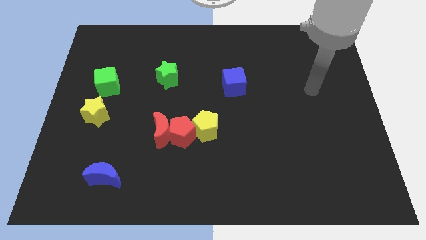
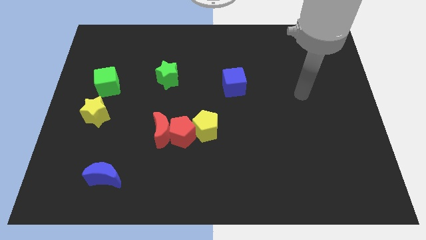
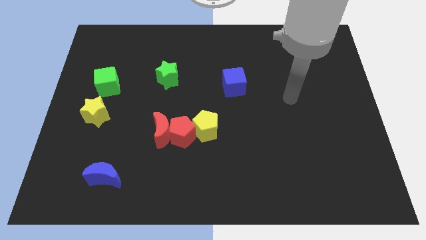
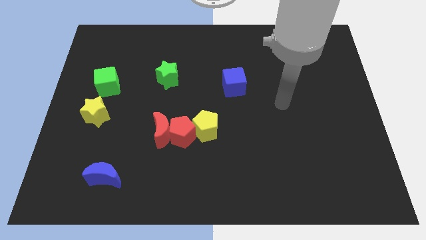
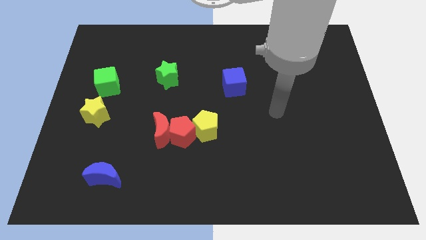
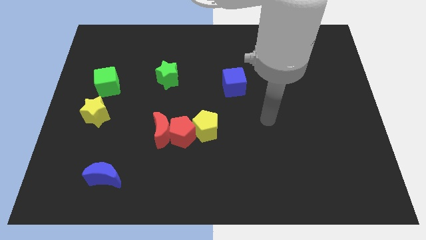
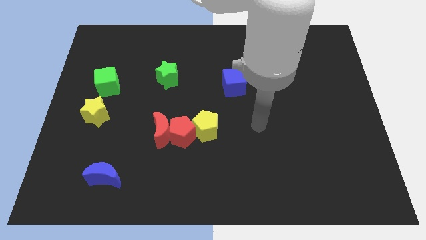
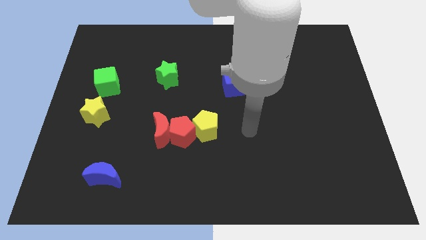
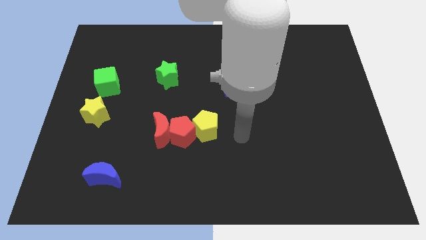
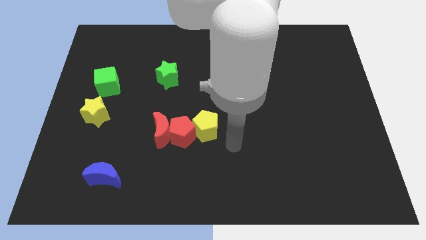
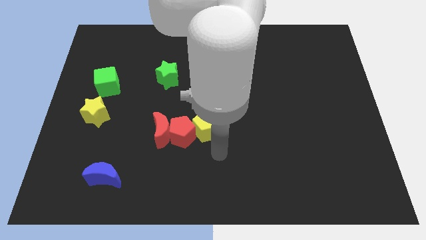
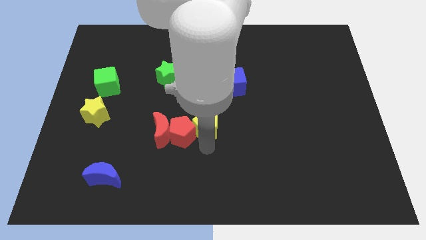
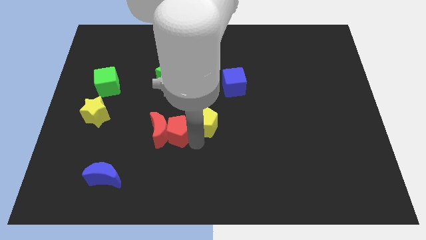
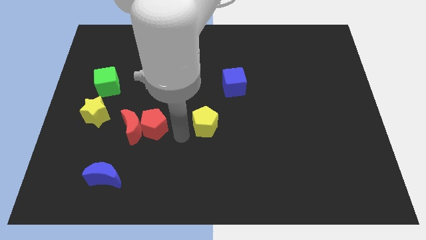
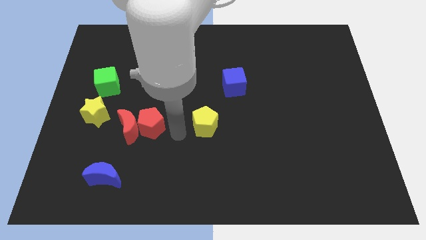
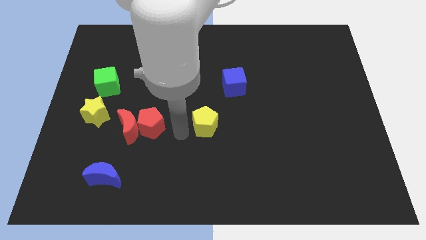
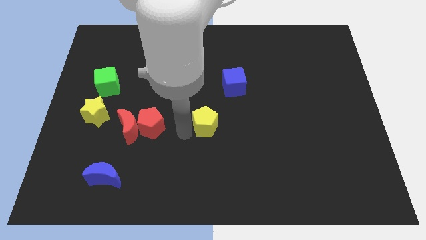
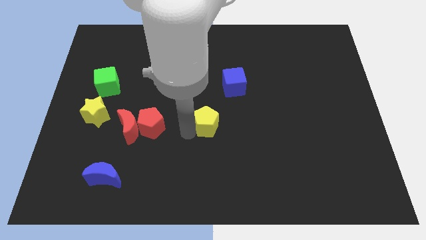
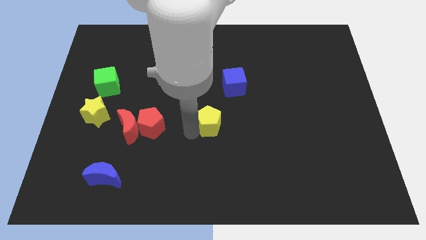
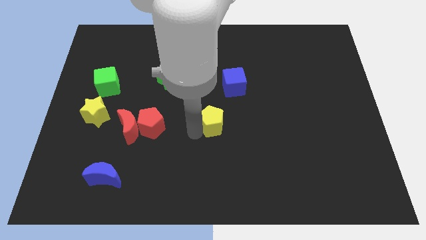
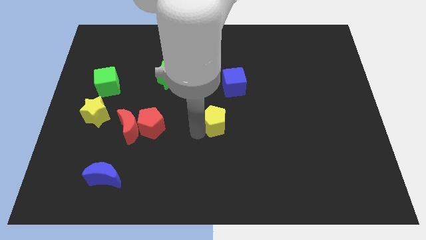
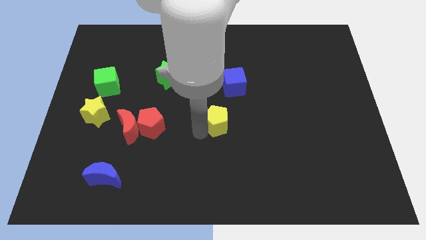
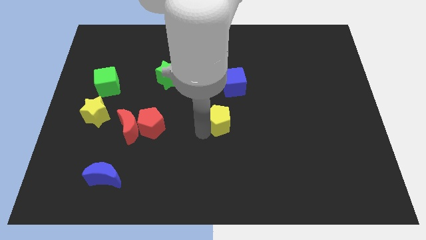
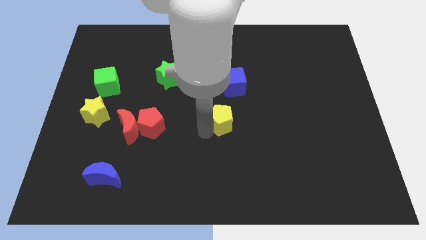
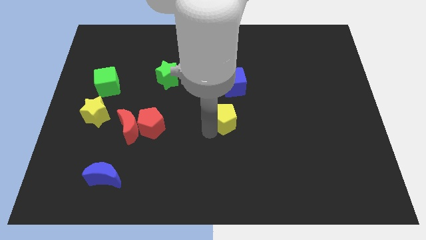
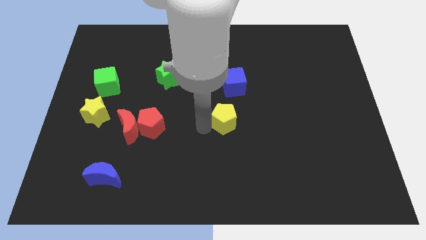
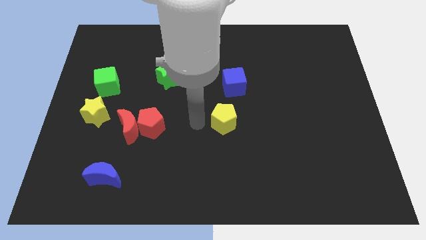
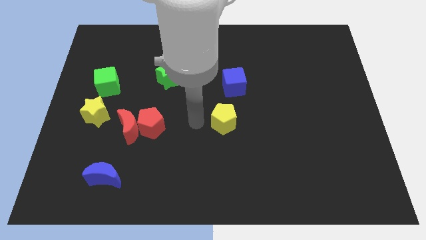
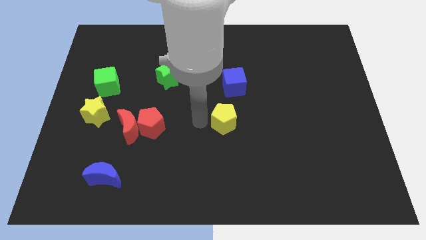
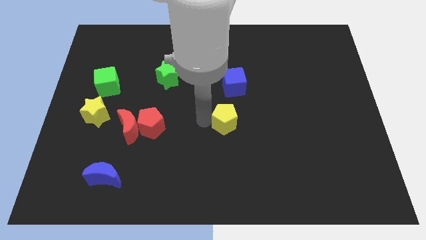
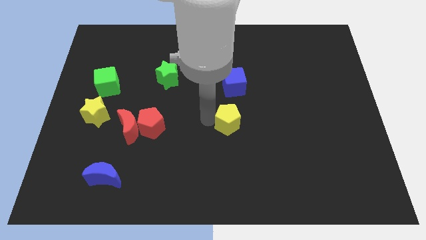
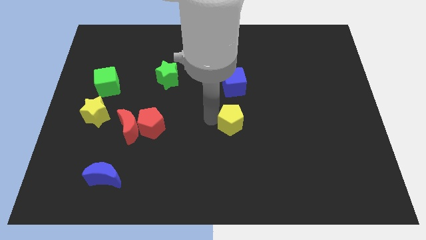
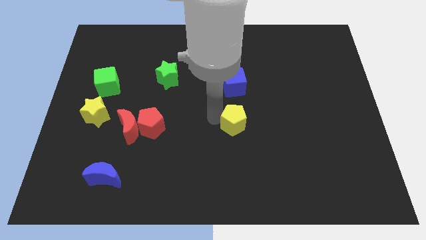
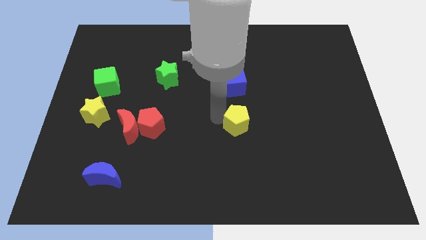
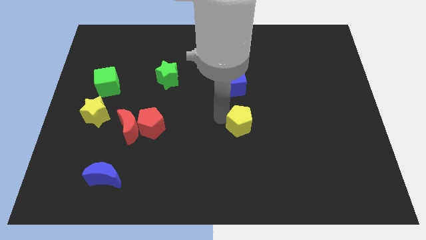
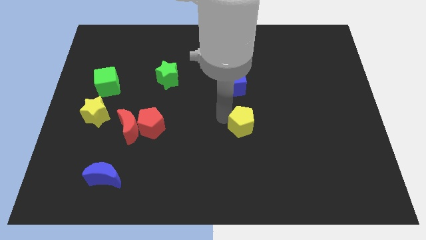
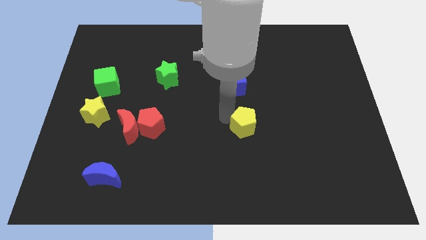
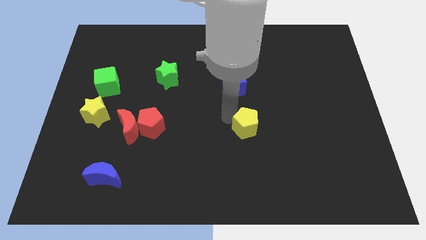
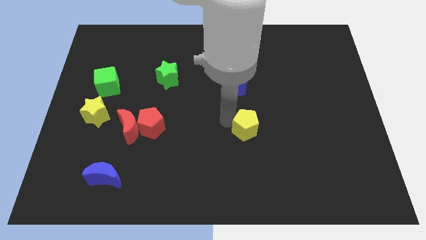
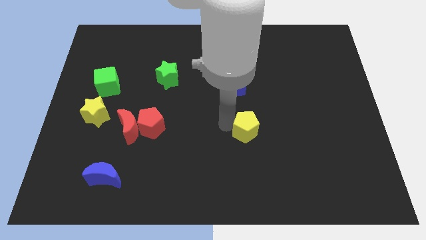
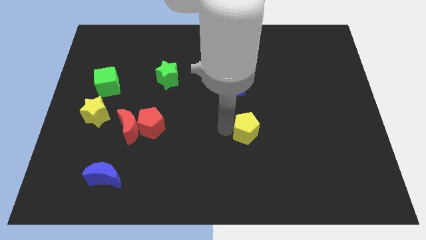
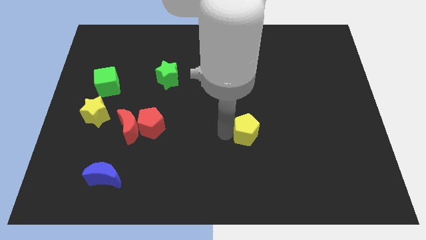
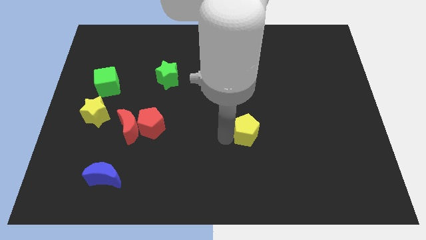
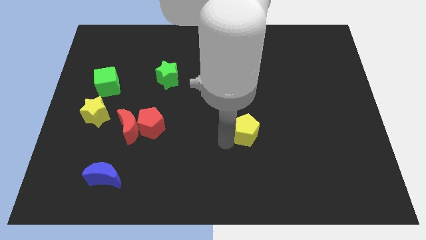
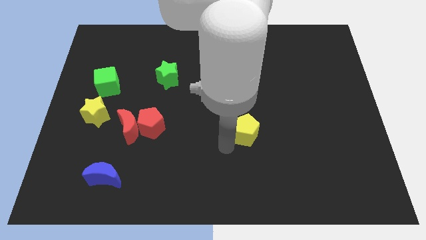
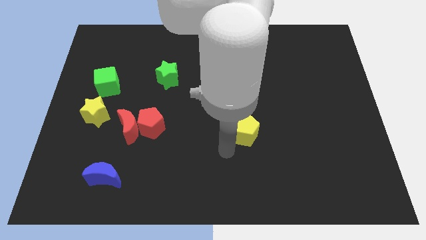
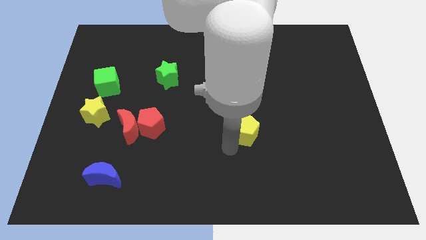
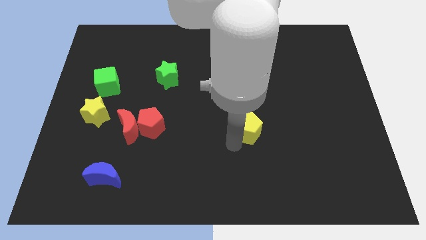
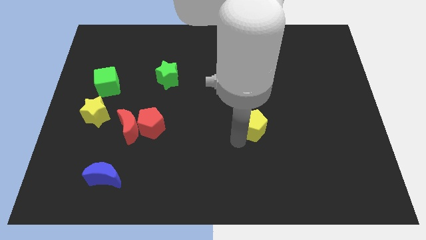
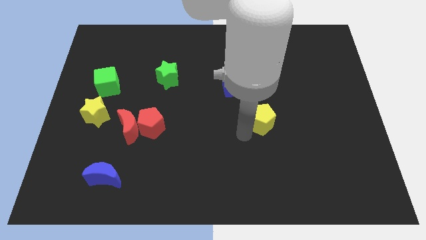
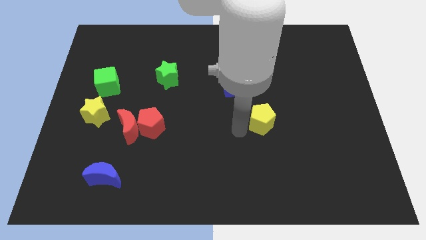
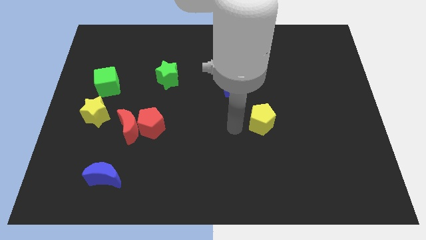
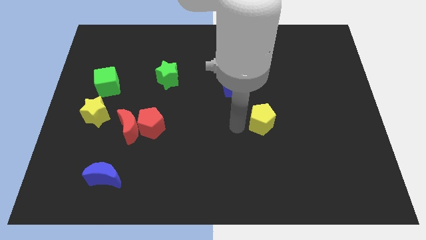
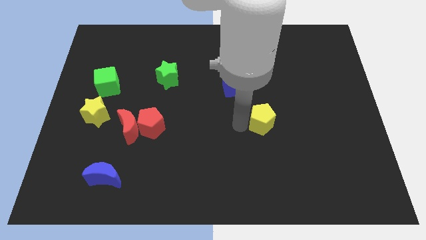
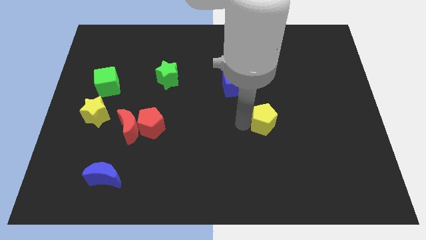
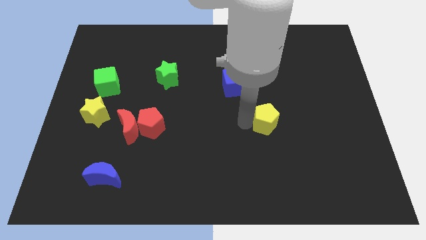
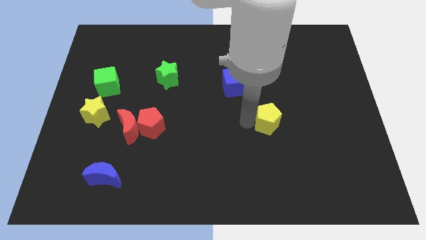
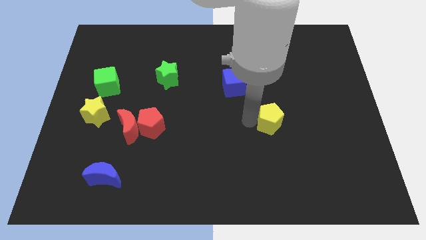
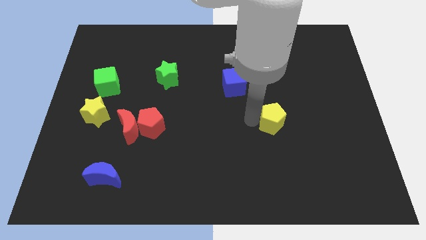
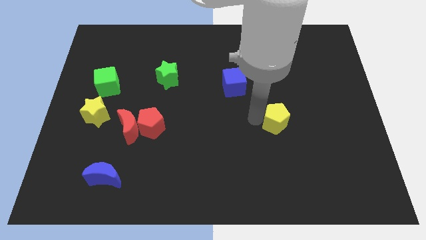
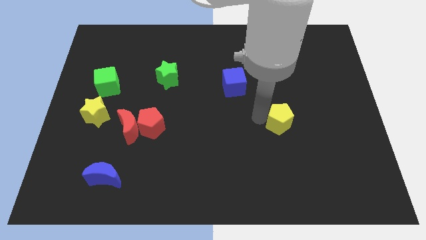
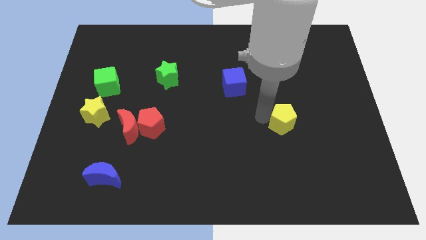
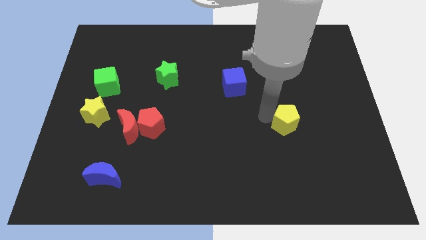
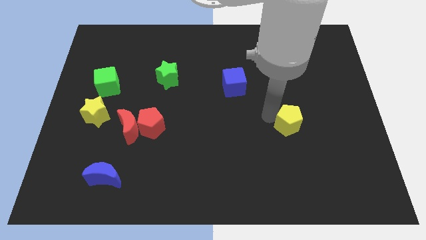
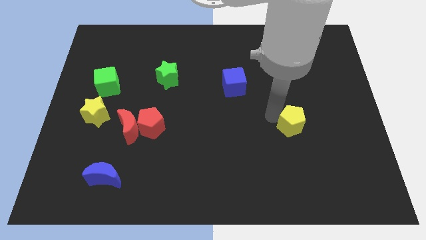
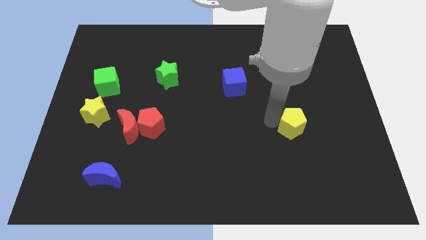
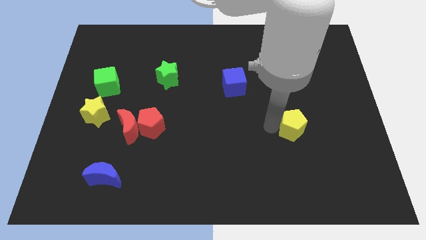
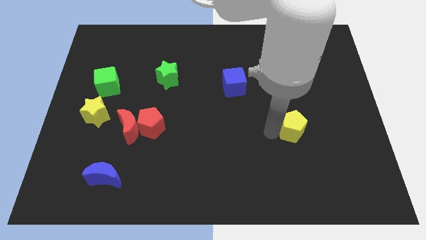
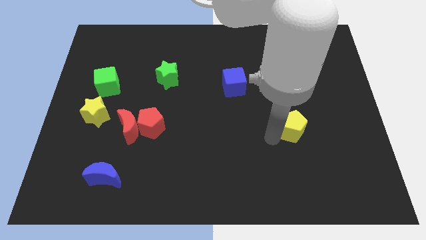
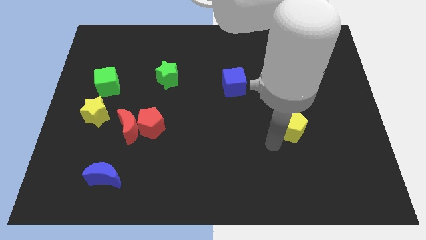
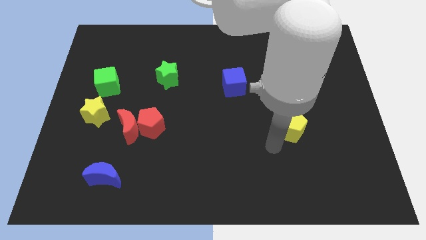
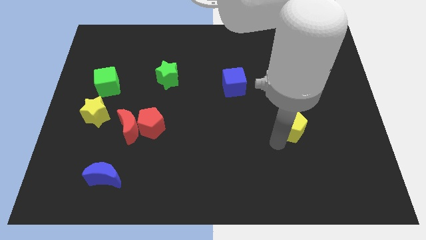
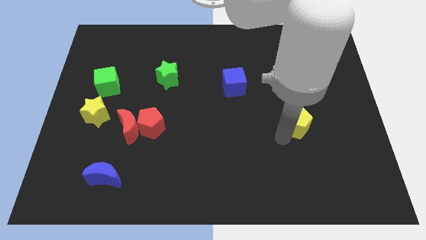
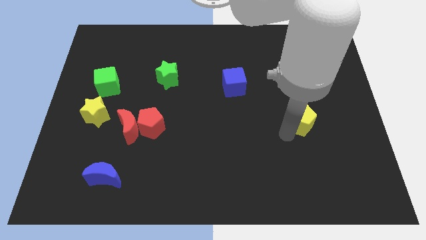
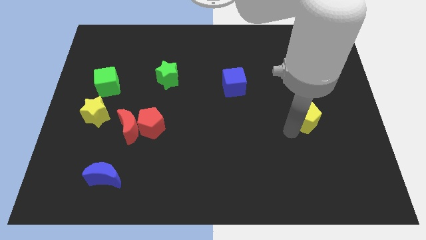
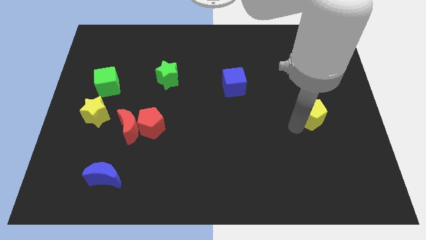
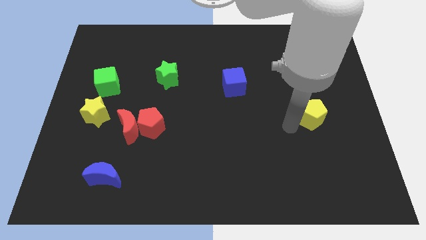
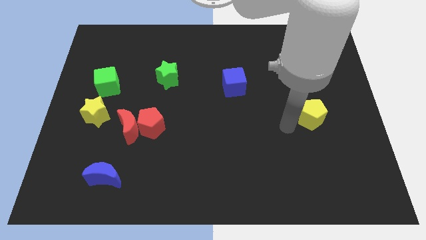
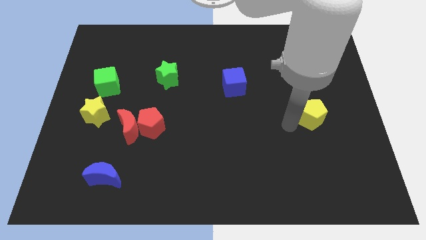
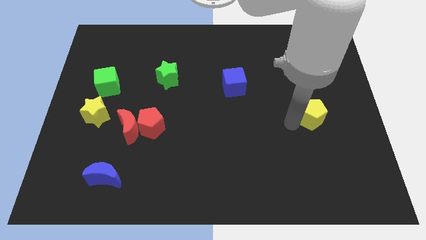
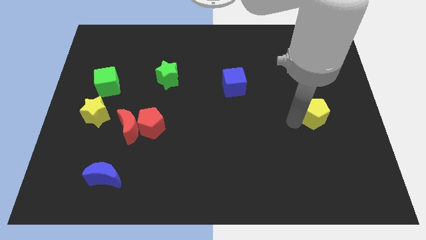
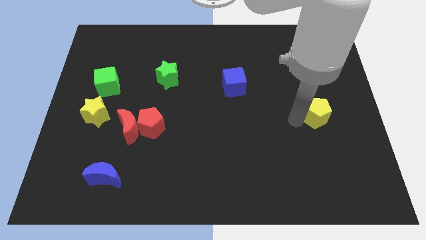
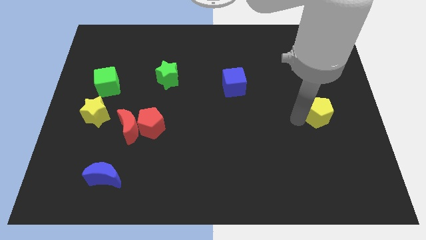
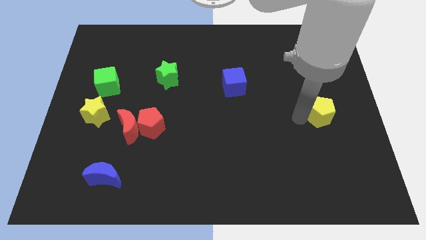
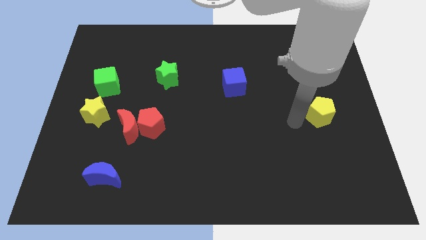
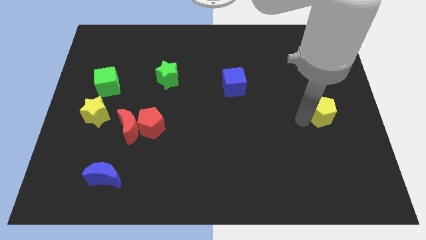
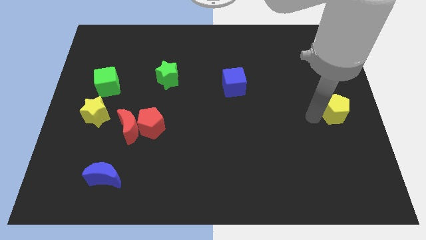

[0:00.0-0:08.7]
move the yellow pentagon to the right side of the board
